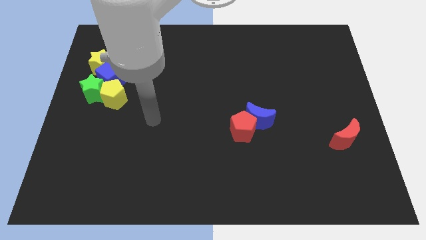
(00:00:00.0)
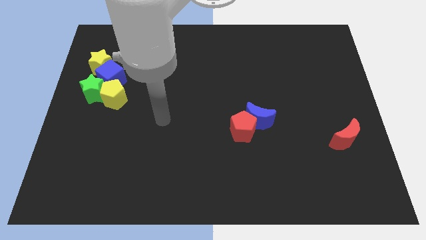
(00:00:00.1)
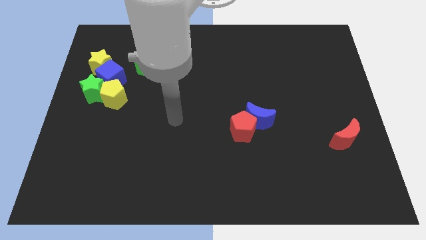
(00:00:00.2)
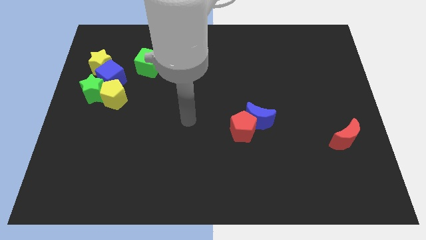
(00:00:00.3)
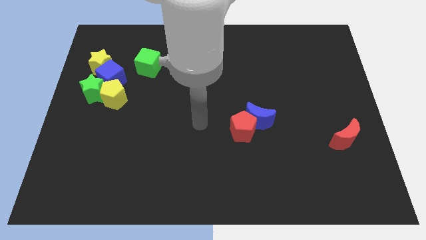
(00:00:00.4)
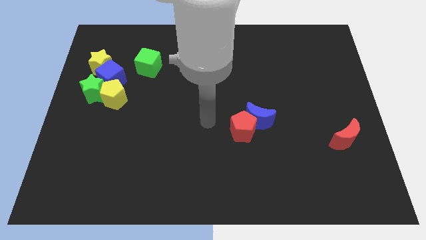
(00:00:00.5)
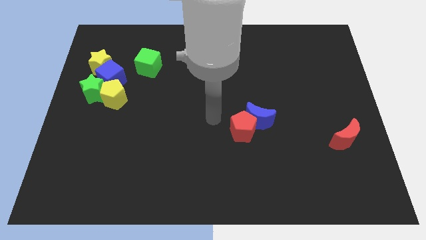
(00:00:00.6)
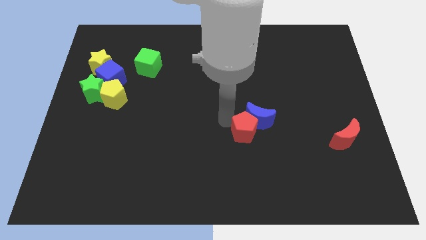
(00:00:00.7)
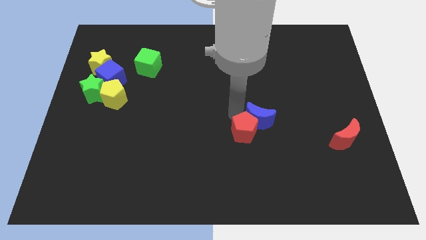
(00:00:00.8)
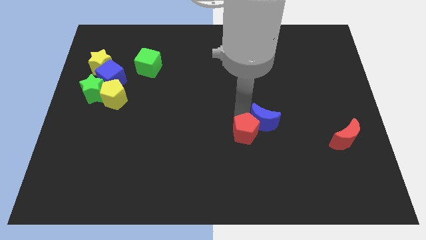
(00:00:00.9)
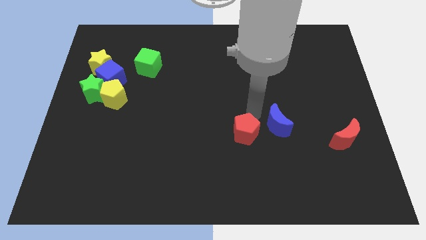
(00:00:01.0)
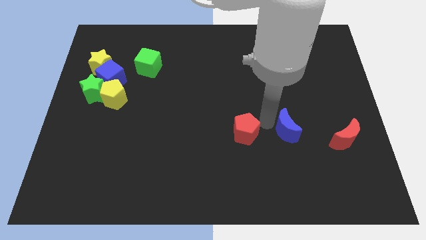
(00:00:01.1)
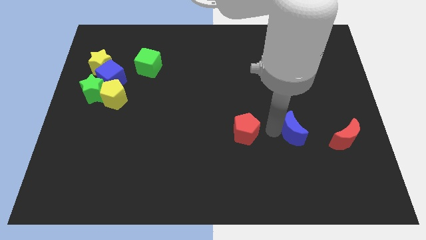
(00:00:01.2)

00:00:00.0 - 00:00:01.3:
move the red pentagon away from the blue moon

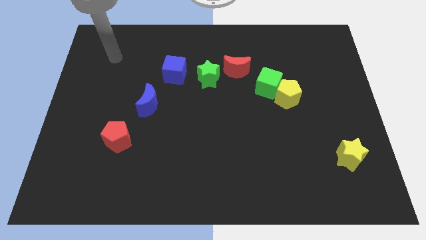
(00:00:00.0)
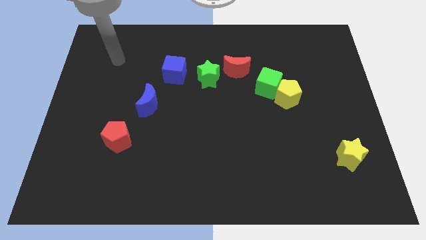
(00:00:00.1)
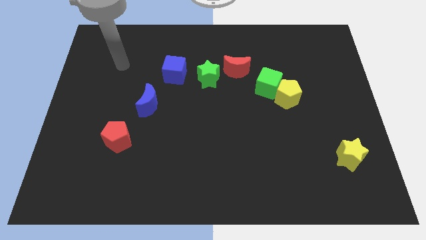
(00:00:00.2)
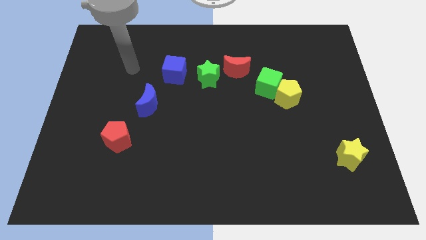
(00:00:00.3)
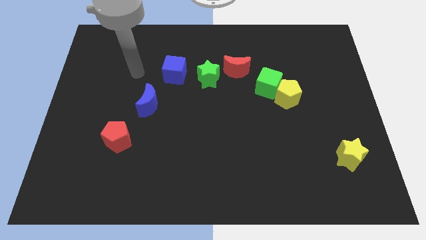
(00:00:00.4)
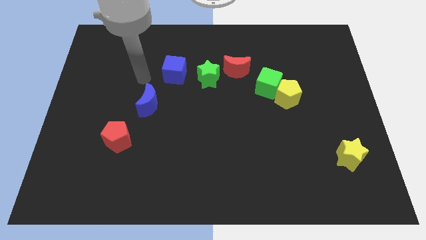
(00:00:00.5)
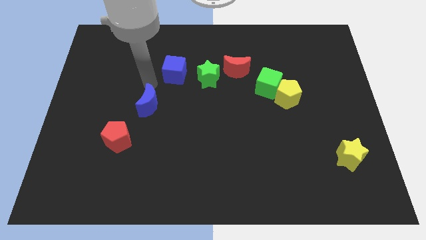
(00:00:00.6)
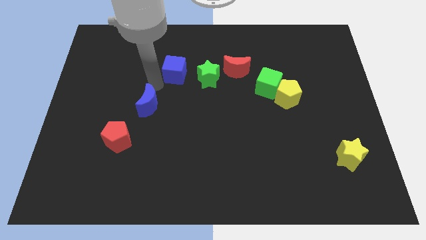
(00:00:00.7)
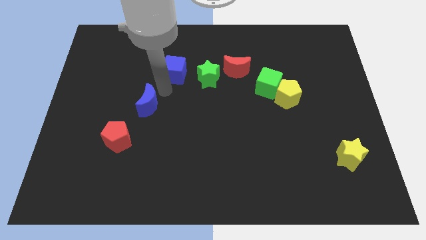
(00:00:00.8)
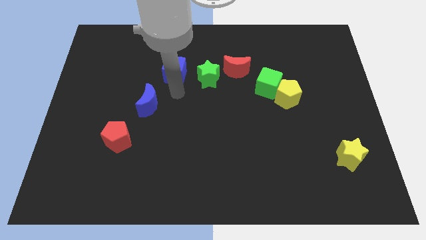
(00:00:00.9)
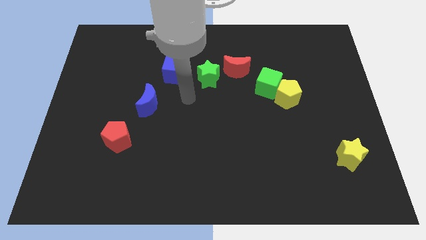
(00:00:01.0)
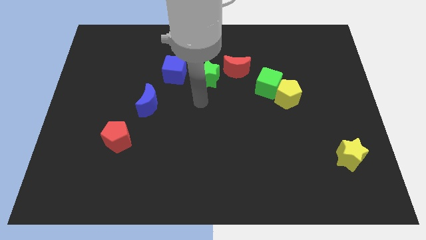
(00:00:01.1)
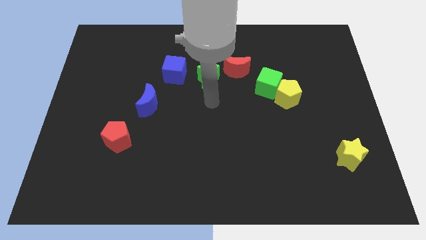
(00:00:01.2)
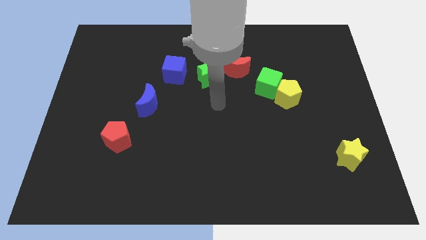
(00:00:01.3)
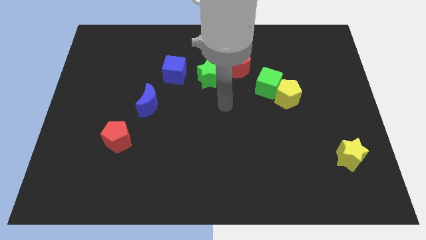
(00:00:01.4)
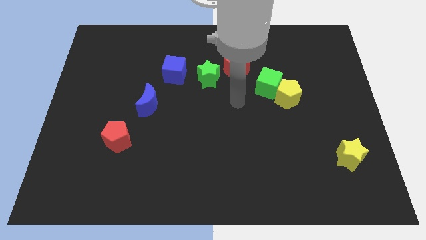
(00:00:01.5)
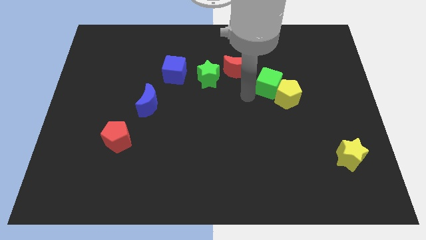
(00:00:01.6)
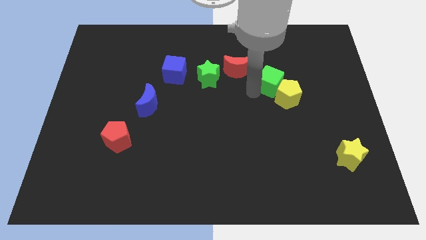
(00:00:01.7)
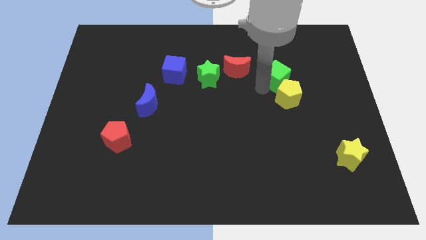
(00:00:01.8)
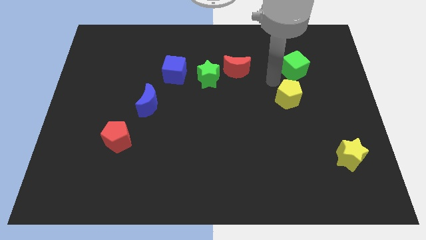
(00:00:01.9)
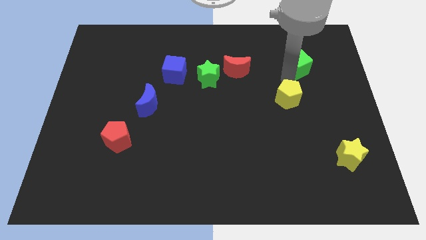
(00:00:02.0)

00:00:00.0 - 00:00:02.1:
pull the yellow pentagon apart from the green cube

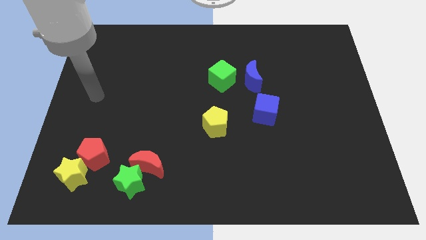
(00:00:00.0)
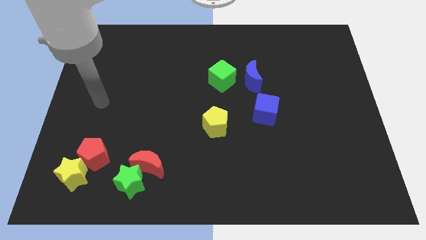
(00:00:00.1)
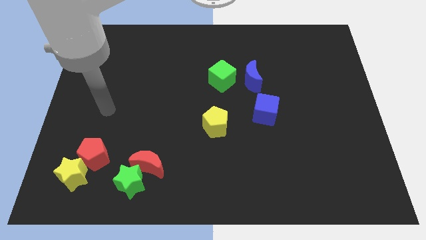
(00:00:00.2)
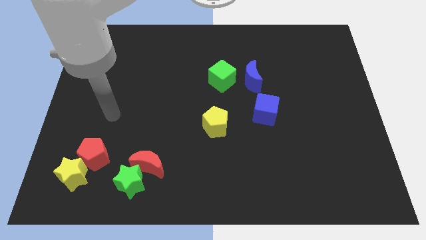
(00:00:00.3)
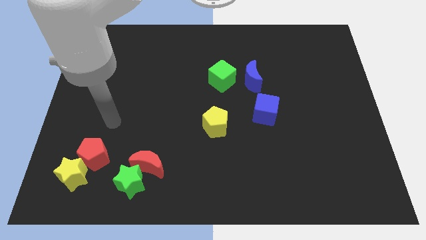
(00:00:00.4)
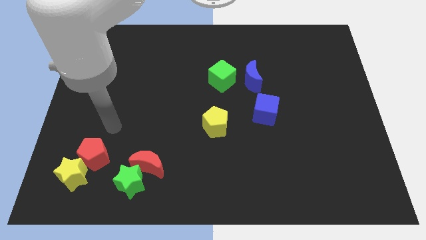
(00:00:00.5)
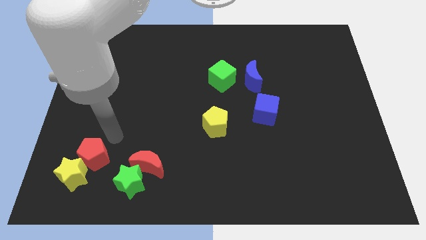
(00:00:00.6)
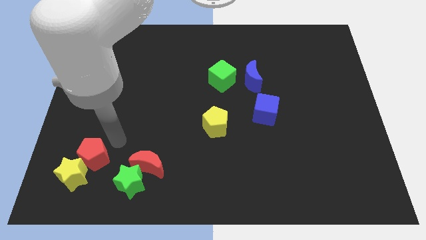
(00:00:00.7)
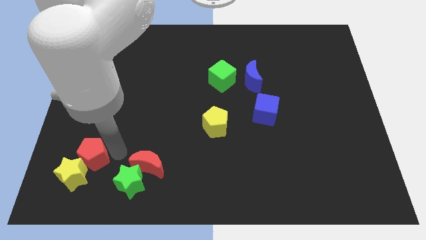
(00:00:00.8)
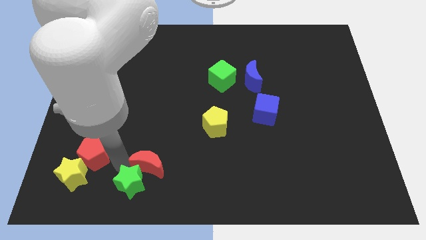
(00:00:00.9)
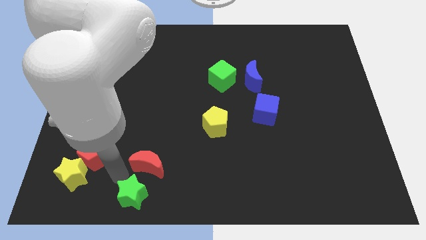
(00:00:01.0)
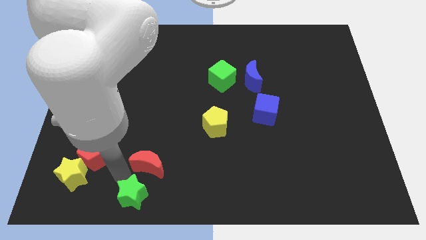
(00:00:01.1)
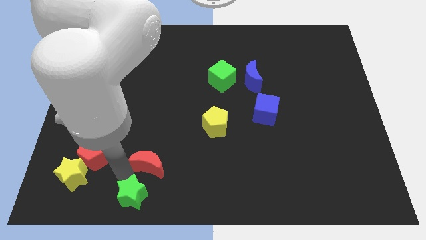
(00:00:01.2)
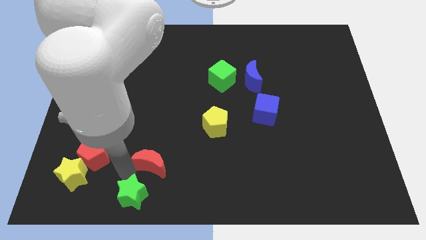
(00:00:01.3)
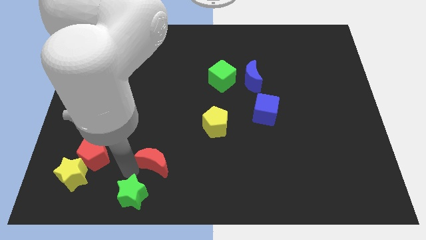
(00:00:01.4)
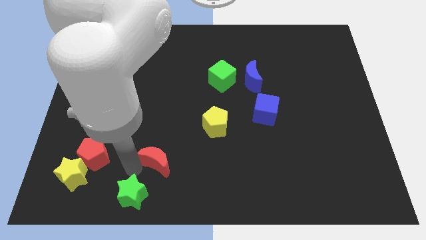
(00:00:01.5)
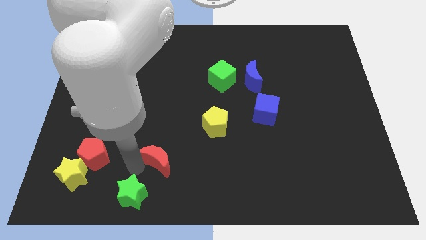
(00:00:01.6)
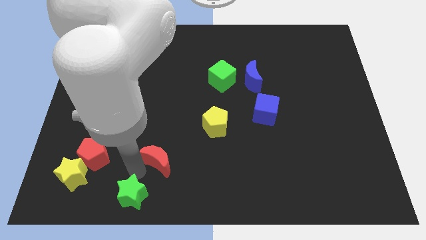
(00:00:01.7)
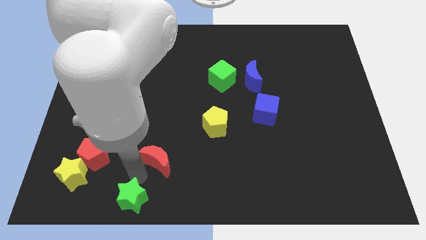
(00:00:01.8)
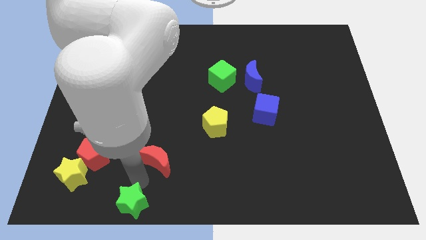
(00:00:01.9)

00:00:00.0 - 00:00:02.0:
pull the red moon apart from the green star

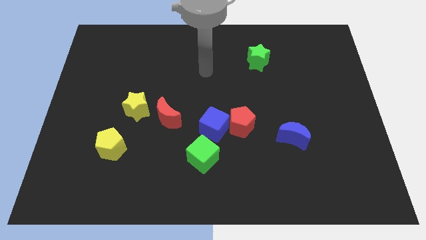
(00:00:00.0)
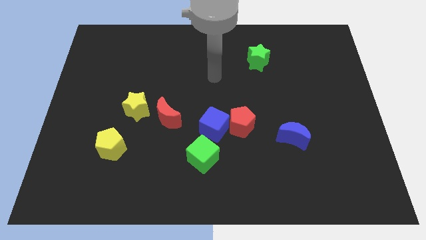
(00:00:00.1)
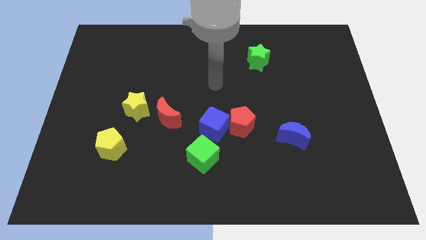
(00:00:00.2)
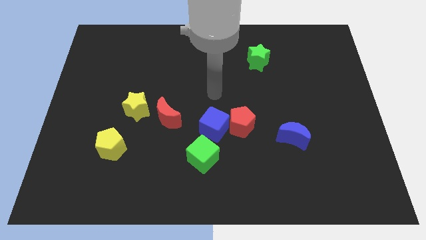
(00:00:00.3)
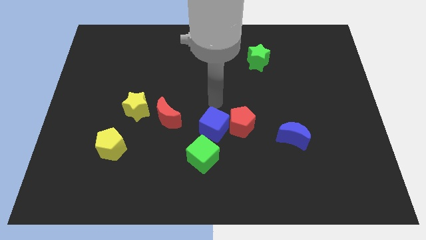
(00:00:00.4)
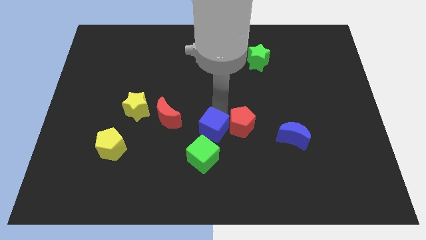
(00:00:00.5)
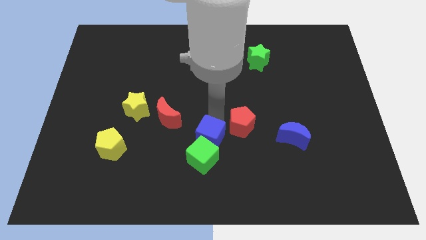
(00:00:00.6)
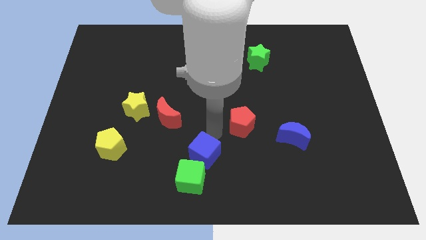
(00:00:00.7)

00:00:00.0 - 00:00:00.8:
pull the red pentagon apart from the blue cube

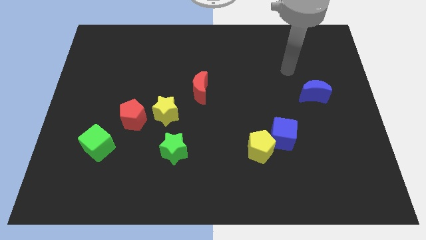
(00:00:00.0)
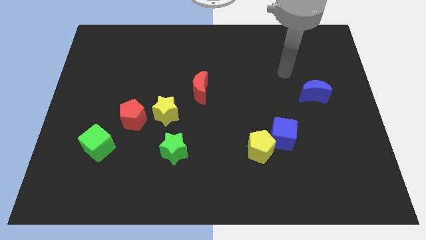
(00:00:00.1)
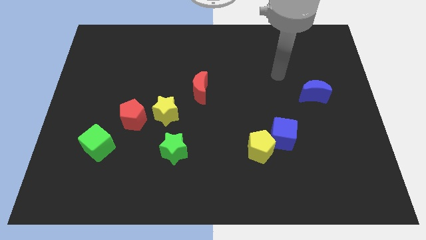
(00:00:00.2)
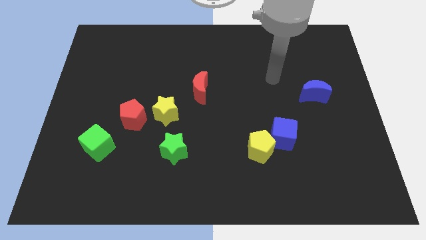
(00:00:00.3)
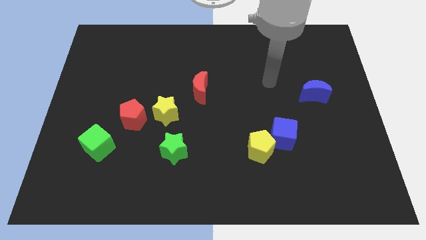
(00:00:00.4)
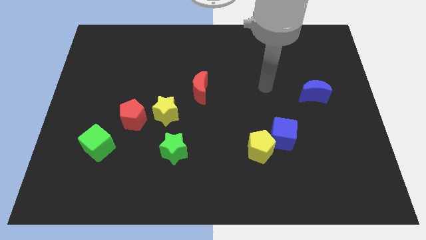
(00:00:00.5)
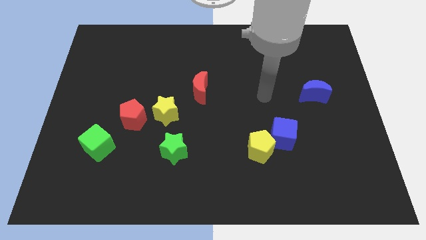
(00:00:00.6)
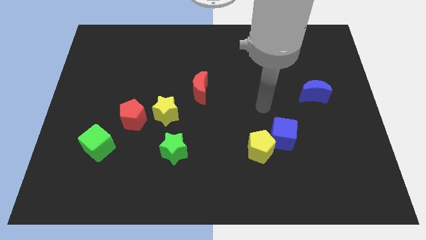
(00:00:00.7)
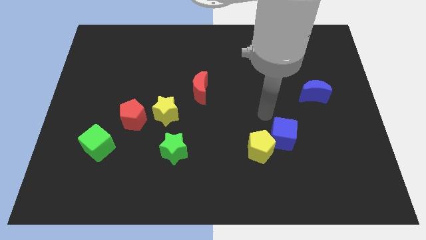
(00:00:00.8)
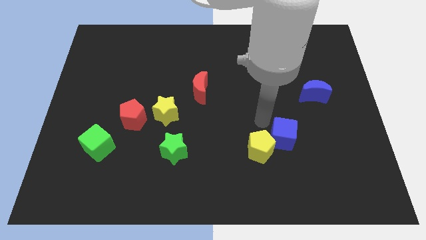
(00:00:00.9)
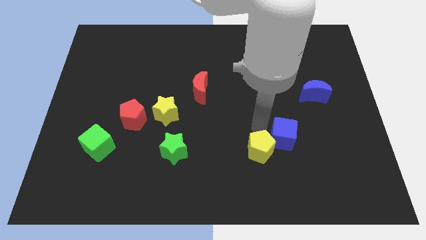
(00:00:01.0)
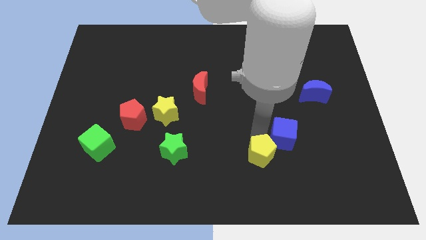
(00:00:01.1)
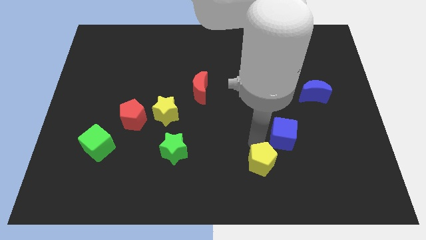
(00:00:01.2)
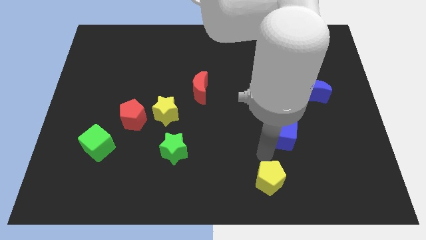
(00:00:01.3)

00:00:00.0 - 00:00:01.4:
separate the blue cube from the yellow pentagon

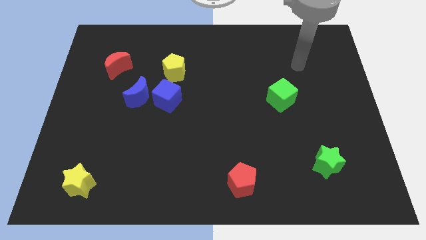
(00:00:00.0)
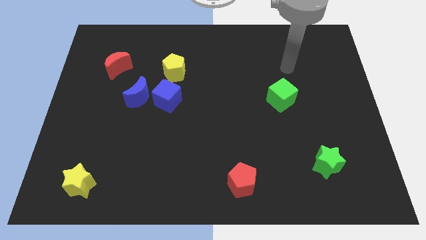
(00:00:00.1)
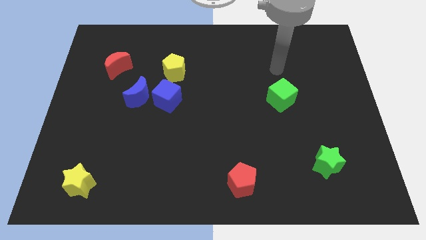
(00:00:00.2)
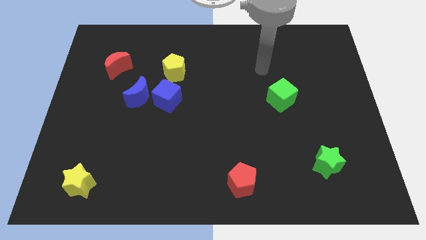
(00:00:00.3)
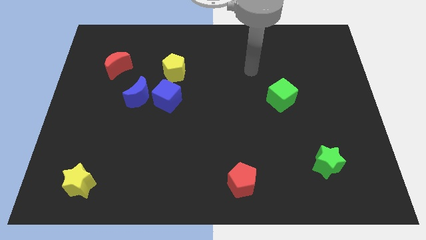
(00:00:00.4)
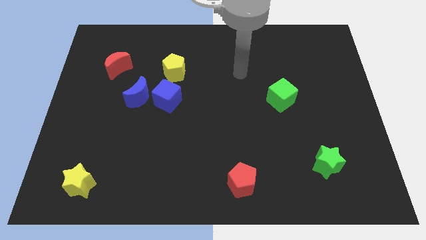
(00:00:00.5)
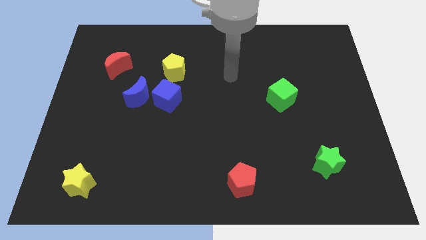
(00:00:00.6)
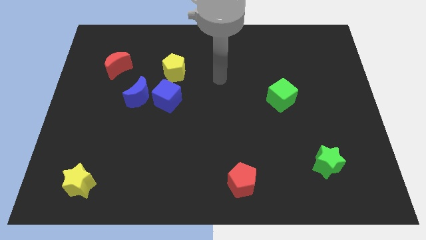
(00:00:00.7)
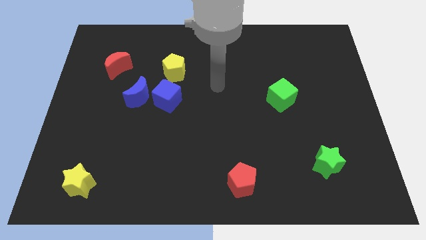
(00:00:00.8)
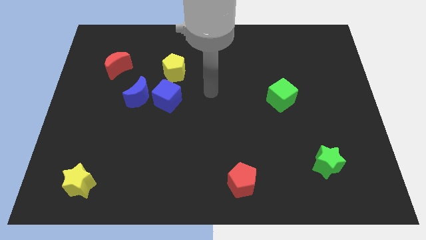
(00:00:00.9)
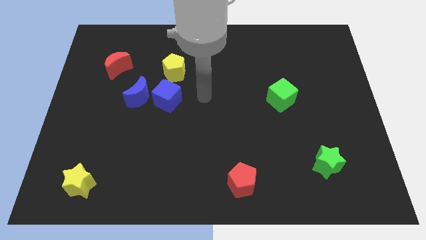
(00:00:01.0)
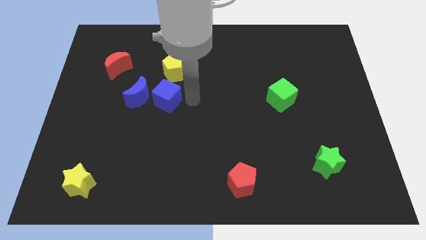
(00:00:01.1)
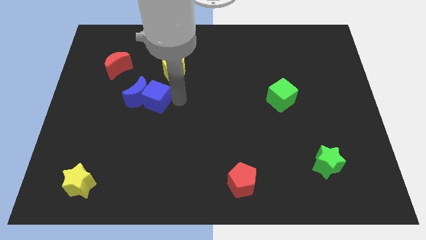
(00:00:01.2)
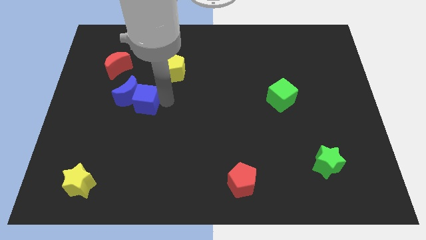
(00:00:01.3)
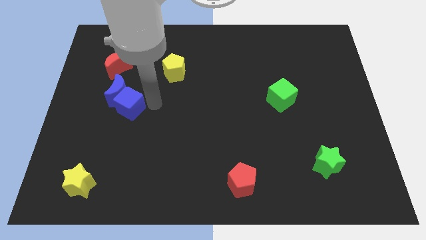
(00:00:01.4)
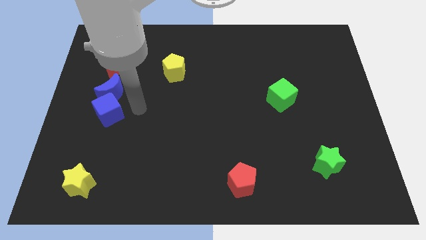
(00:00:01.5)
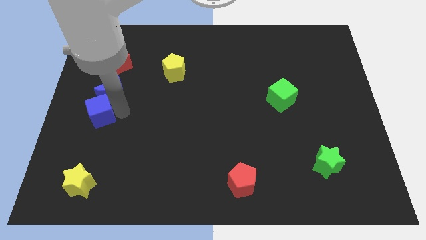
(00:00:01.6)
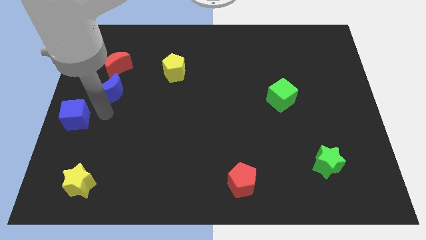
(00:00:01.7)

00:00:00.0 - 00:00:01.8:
move the blue moon away from the blue cube

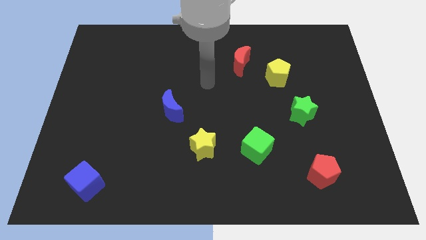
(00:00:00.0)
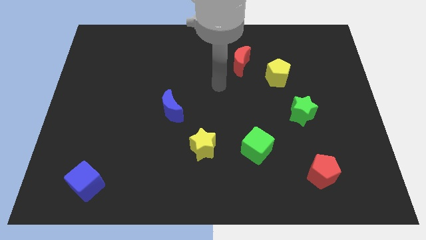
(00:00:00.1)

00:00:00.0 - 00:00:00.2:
pull the red moon apart from the yellow pentagon
